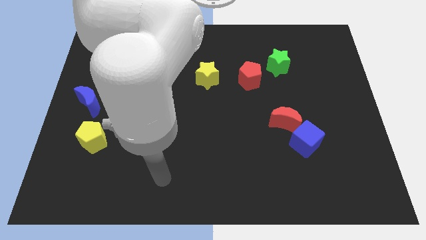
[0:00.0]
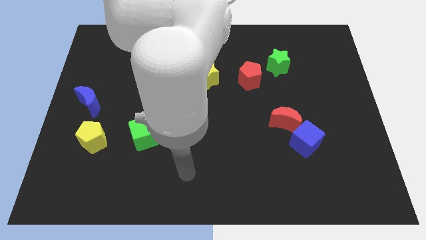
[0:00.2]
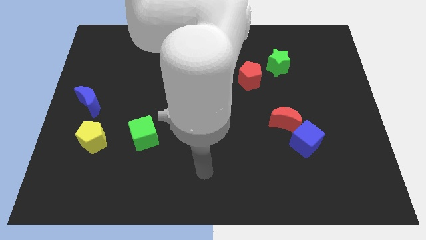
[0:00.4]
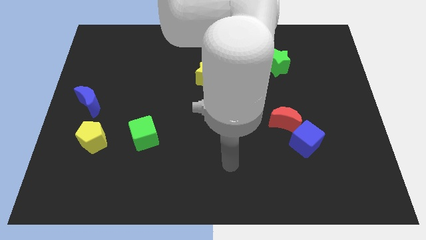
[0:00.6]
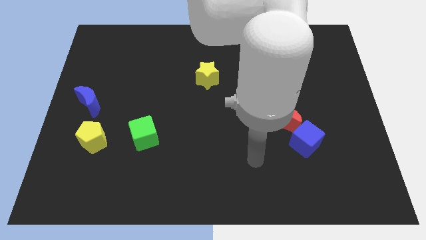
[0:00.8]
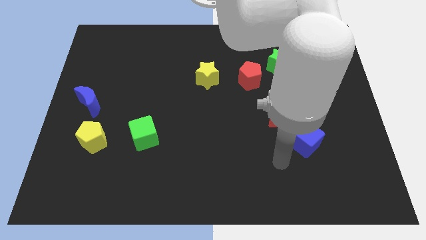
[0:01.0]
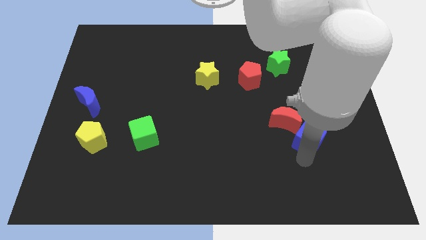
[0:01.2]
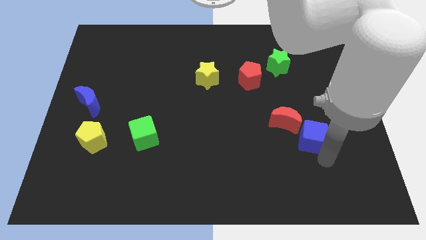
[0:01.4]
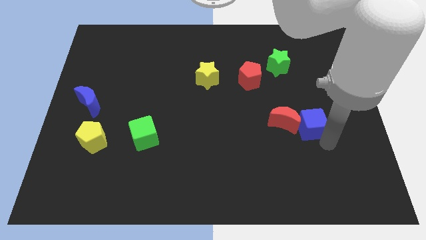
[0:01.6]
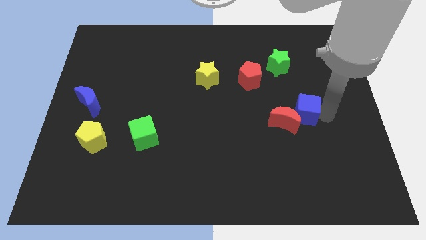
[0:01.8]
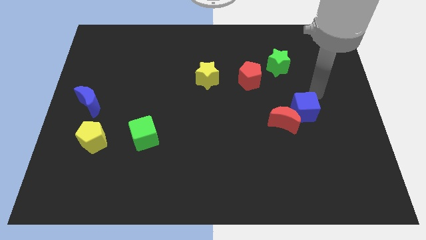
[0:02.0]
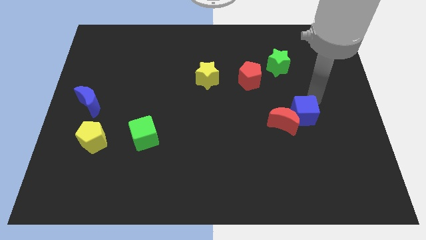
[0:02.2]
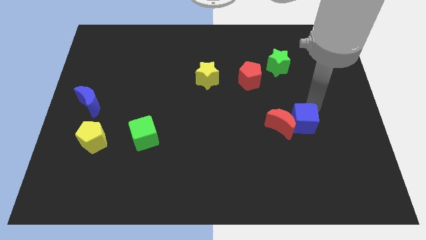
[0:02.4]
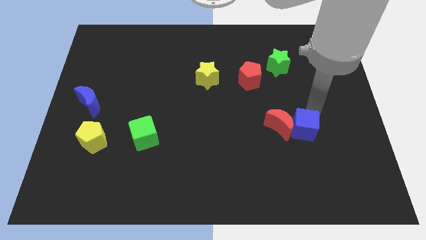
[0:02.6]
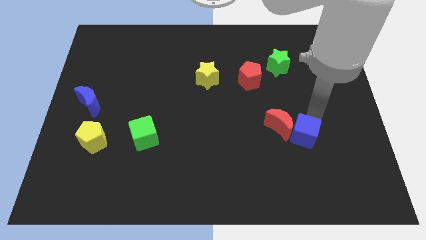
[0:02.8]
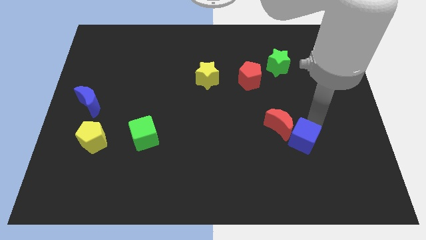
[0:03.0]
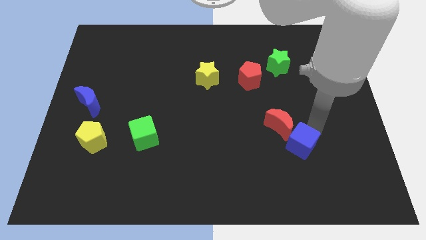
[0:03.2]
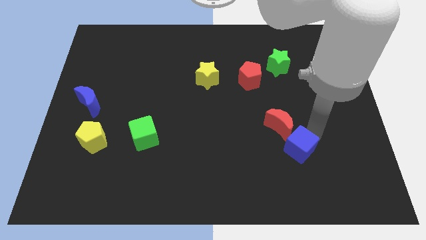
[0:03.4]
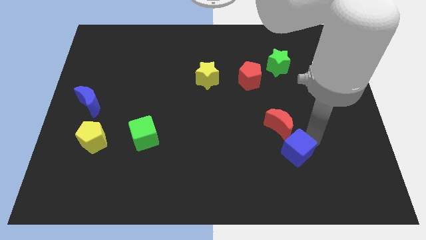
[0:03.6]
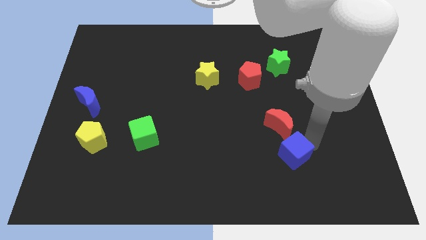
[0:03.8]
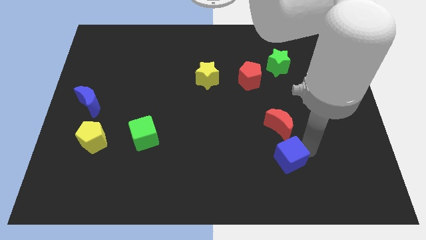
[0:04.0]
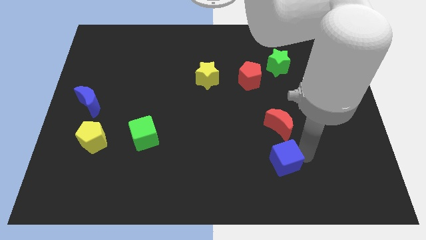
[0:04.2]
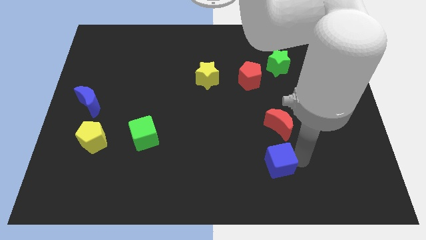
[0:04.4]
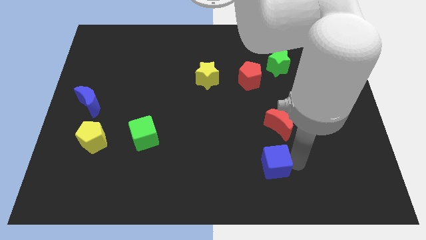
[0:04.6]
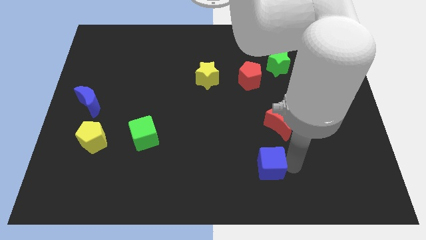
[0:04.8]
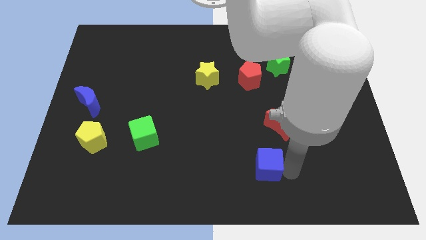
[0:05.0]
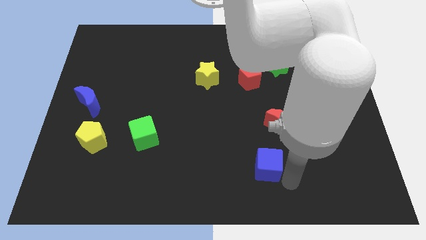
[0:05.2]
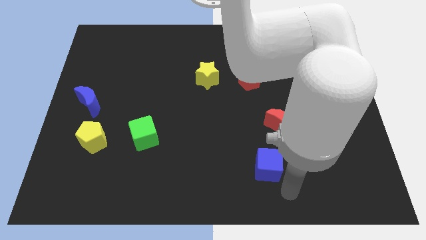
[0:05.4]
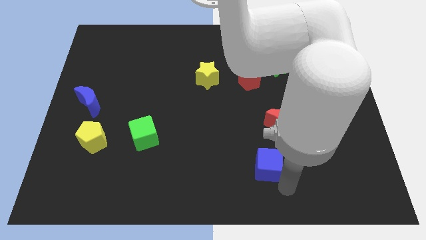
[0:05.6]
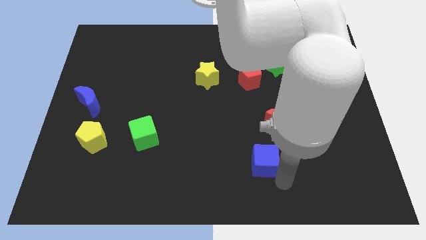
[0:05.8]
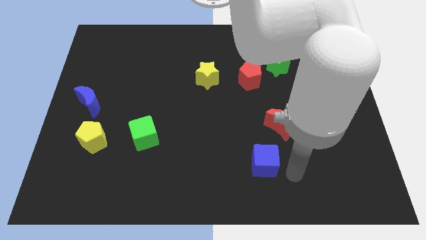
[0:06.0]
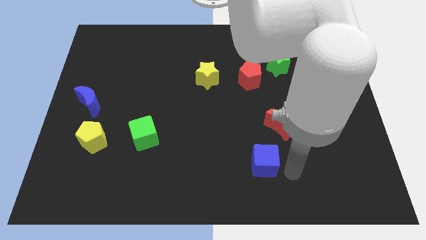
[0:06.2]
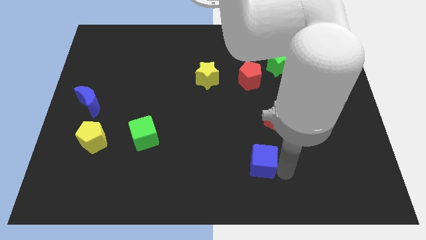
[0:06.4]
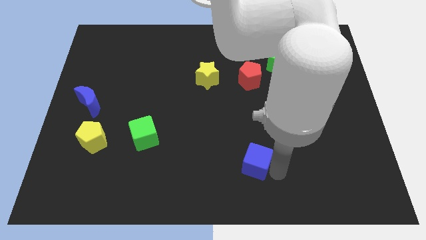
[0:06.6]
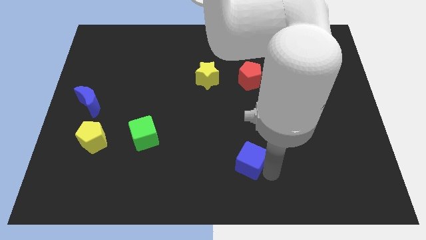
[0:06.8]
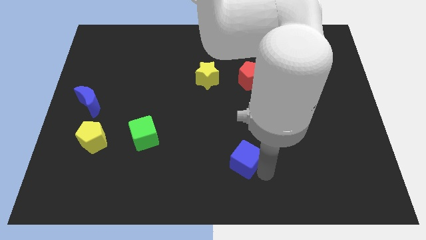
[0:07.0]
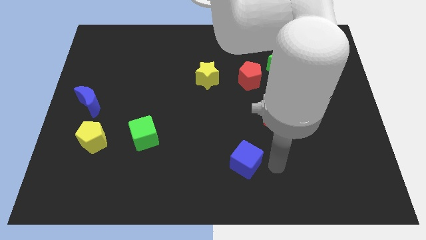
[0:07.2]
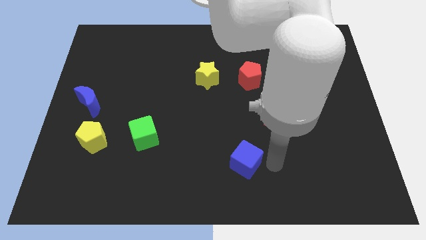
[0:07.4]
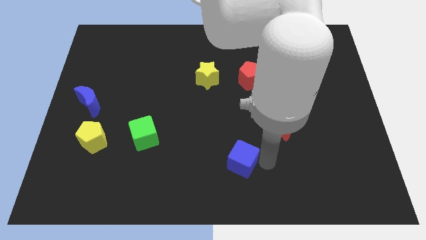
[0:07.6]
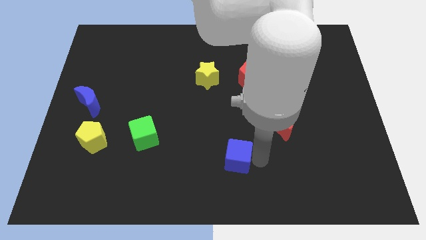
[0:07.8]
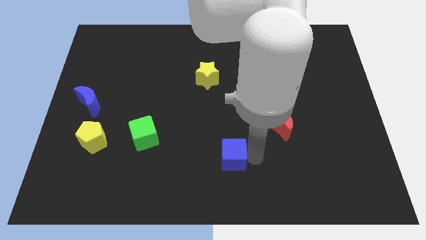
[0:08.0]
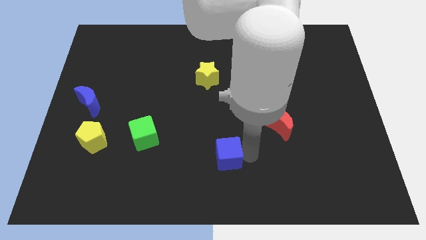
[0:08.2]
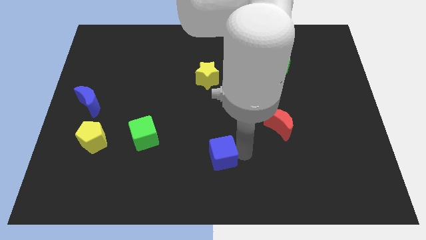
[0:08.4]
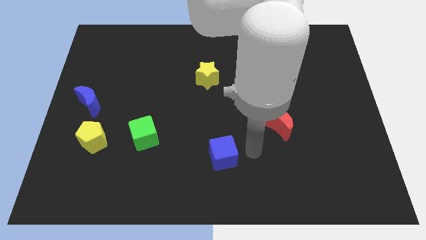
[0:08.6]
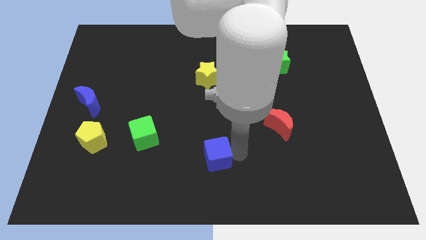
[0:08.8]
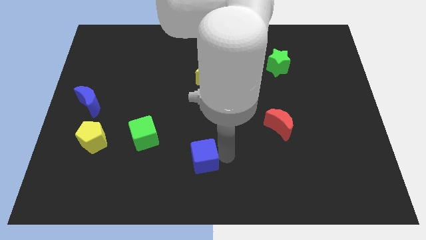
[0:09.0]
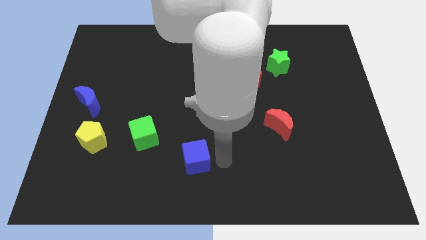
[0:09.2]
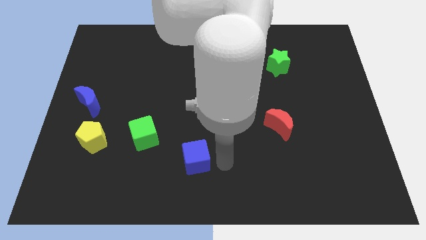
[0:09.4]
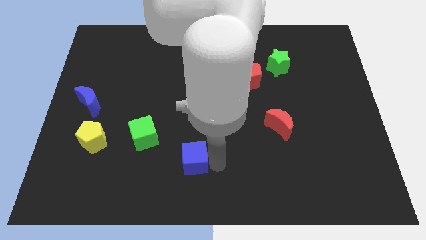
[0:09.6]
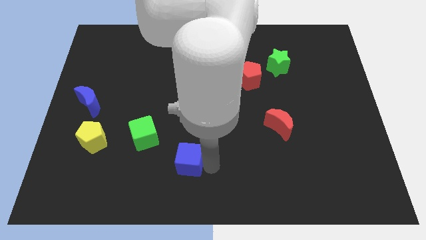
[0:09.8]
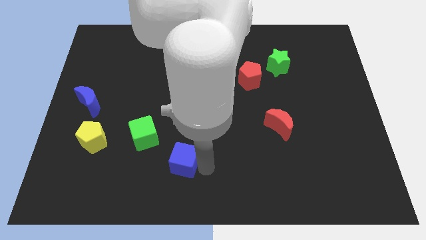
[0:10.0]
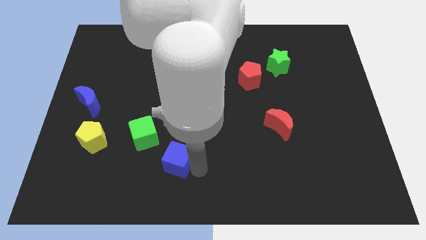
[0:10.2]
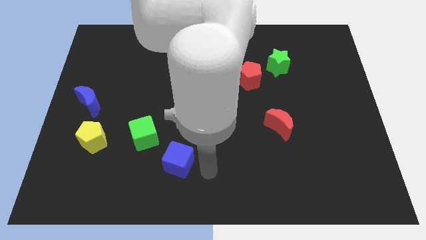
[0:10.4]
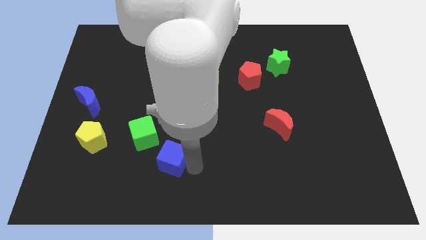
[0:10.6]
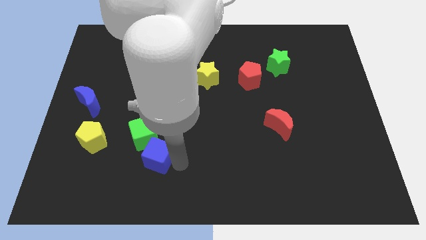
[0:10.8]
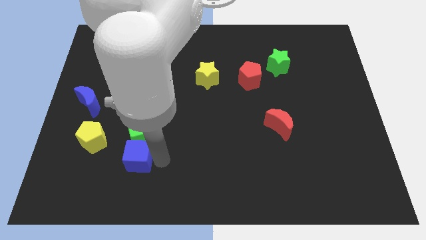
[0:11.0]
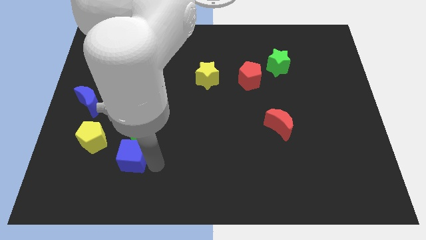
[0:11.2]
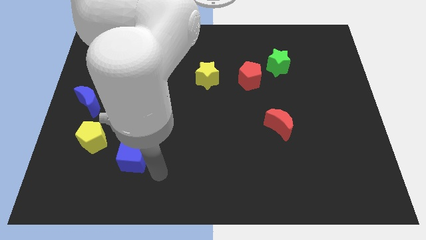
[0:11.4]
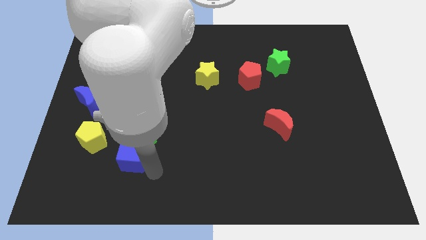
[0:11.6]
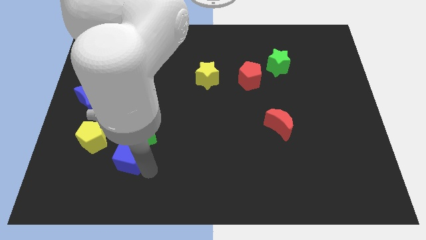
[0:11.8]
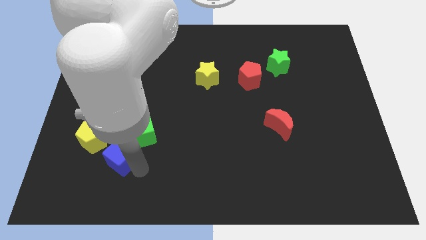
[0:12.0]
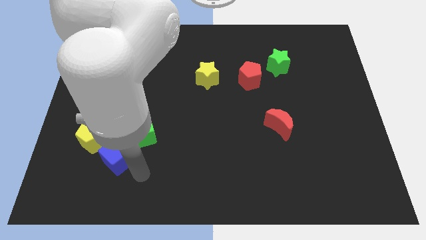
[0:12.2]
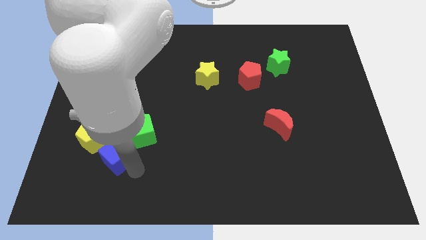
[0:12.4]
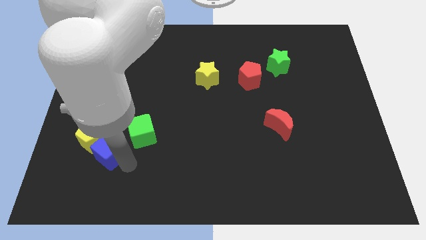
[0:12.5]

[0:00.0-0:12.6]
slide the blue cube close to the yellow pentagon

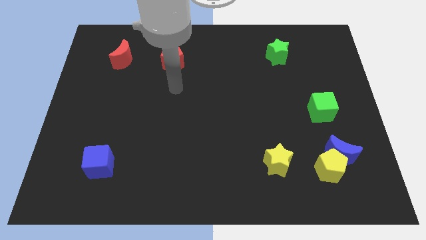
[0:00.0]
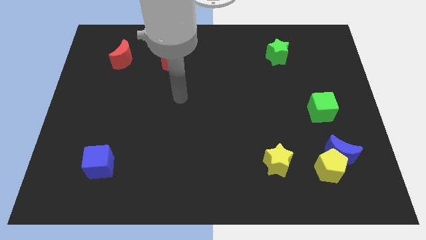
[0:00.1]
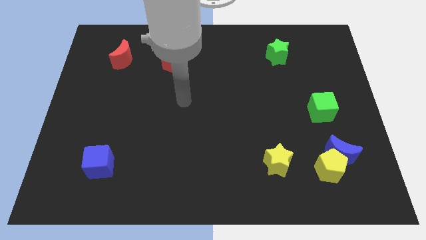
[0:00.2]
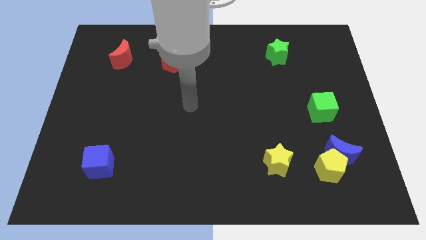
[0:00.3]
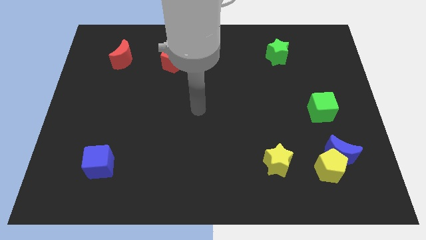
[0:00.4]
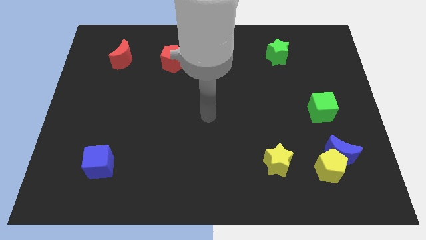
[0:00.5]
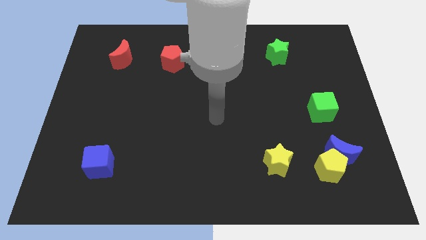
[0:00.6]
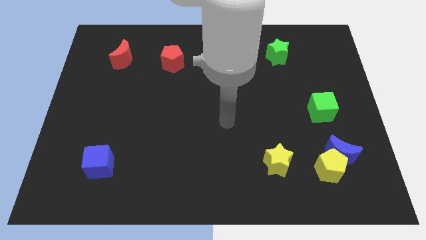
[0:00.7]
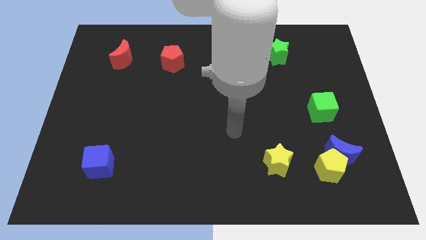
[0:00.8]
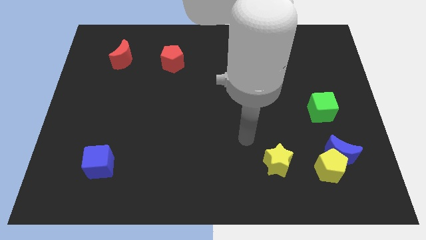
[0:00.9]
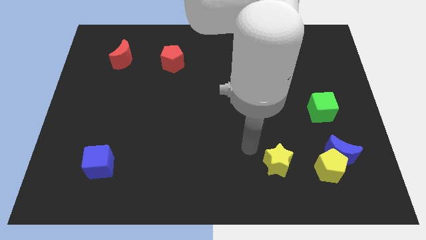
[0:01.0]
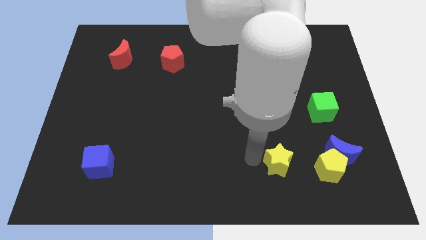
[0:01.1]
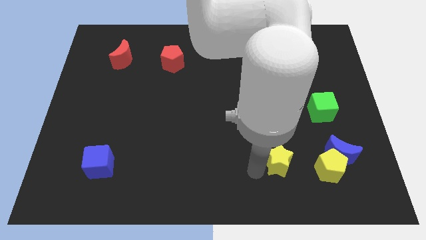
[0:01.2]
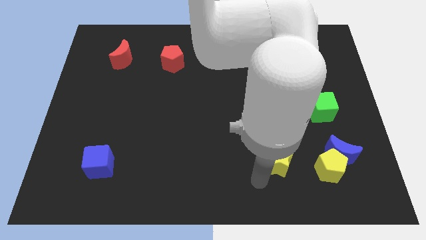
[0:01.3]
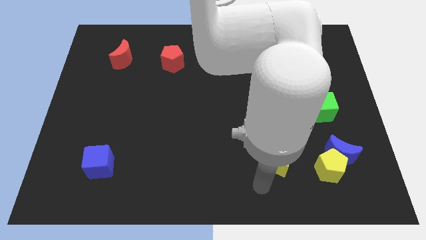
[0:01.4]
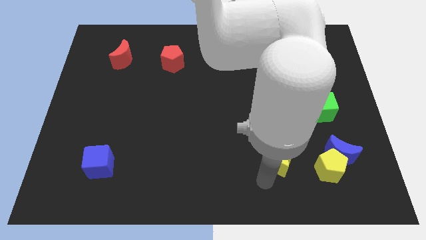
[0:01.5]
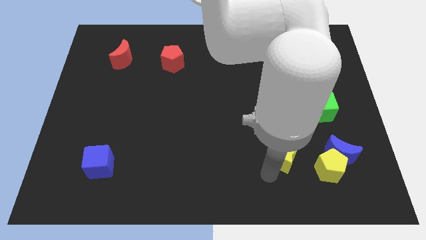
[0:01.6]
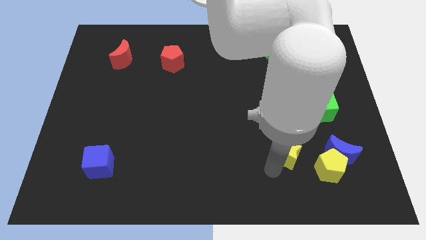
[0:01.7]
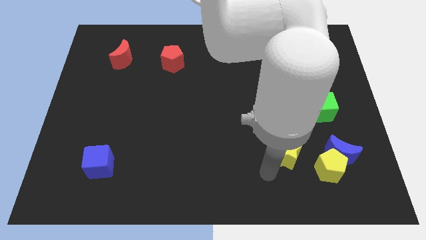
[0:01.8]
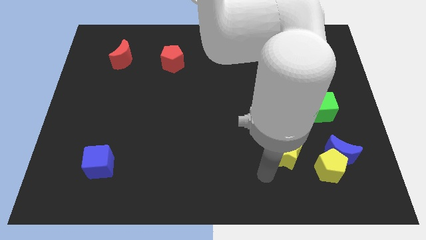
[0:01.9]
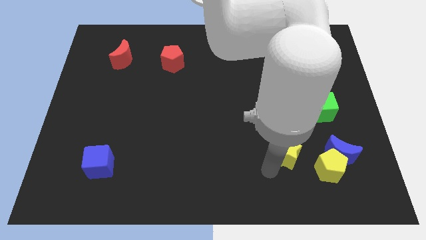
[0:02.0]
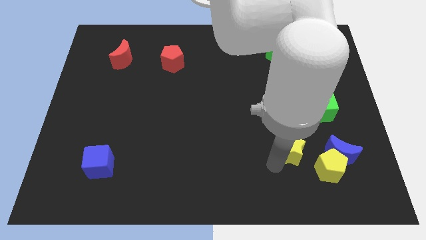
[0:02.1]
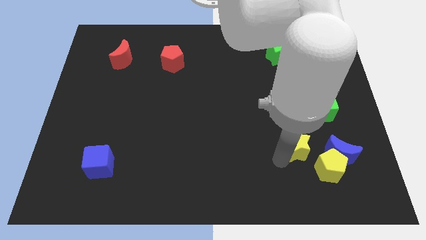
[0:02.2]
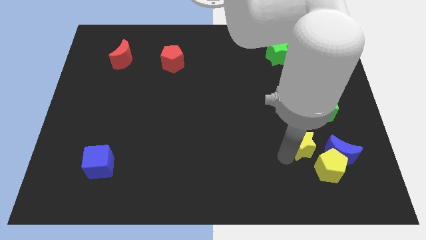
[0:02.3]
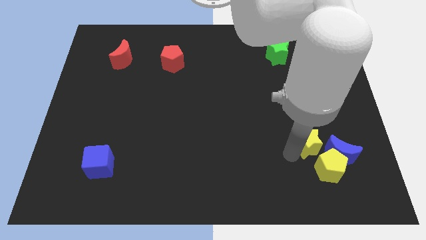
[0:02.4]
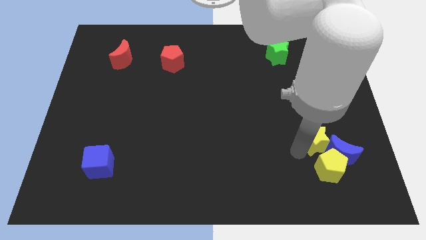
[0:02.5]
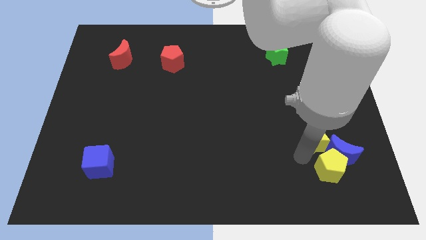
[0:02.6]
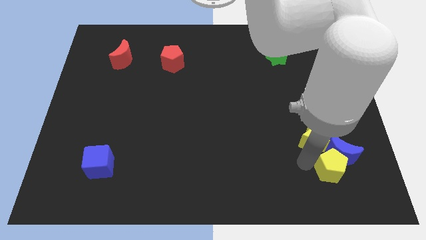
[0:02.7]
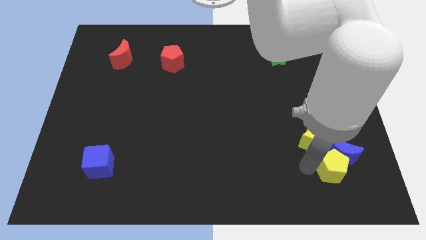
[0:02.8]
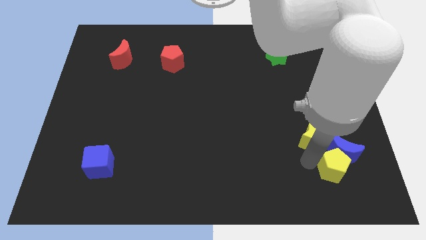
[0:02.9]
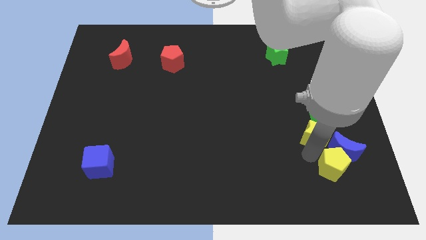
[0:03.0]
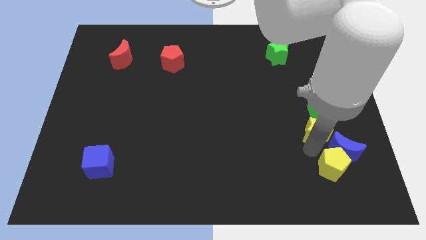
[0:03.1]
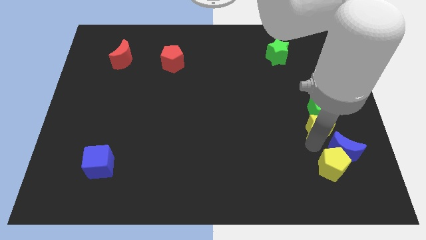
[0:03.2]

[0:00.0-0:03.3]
move the yellow star next to the green cube
